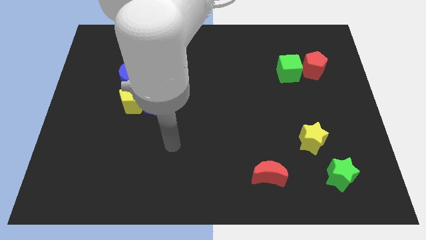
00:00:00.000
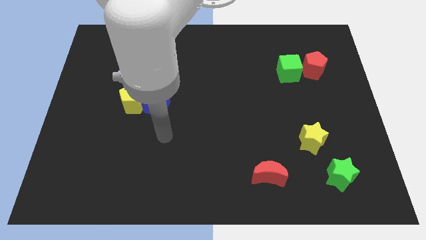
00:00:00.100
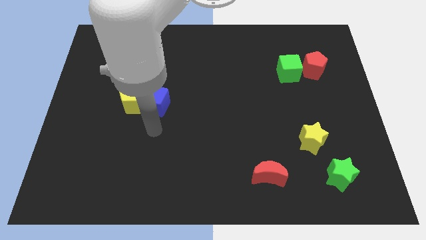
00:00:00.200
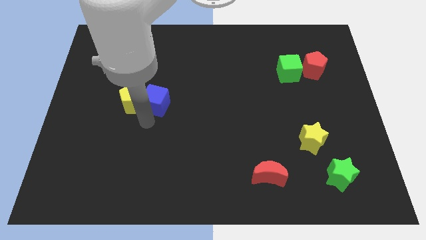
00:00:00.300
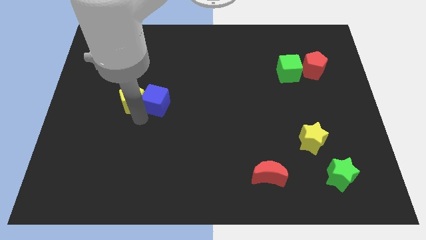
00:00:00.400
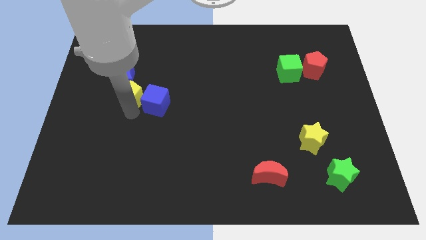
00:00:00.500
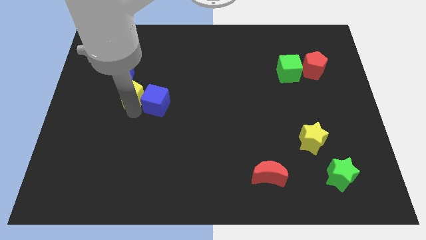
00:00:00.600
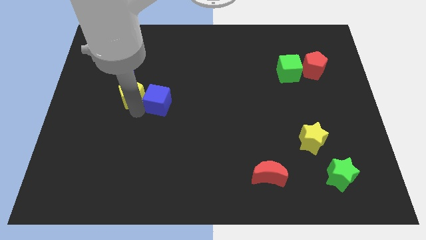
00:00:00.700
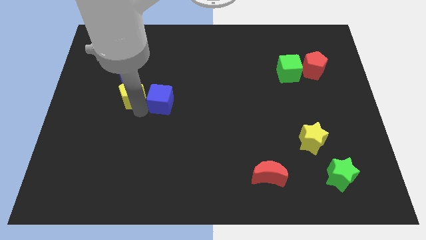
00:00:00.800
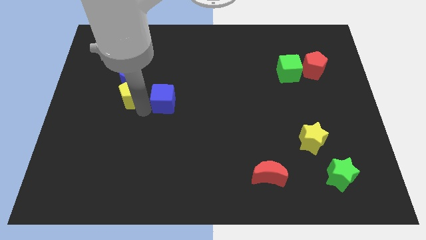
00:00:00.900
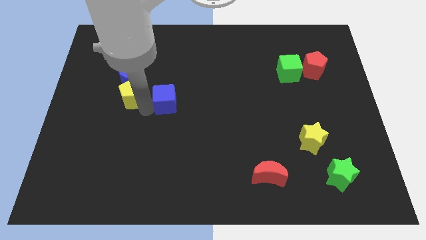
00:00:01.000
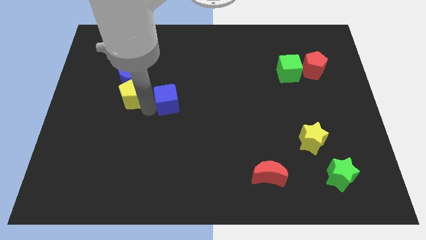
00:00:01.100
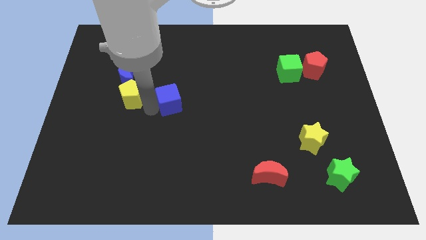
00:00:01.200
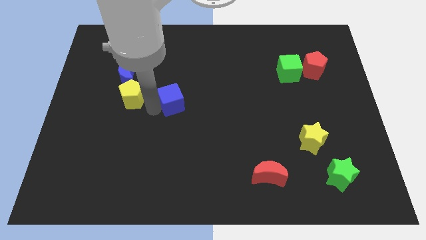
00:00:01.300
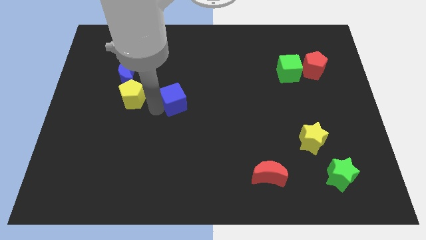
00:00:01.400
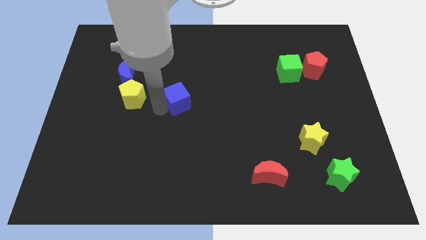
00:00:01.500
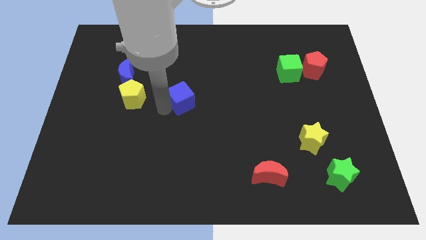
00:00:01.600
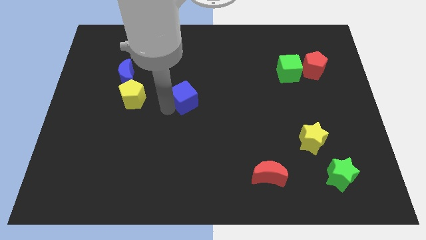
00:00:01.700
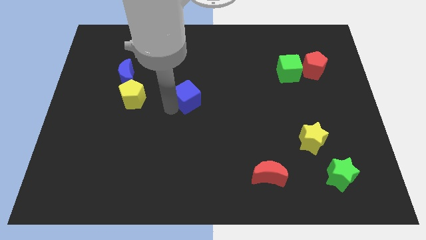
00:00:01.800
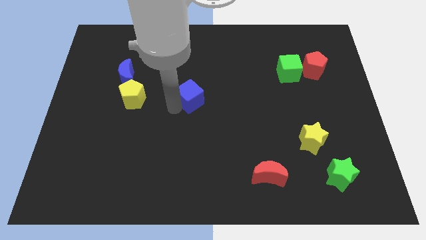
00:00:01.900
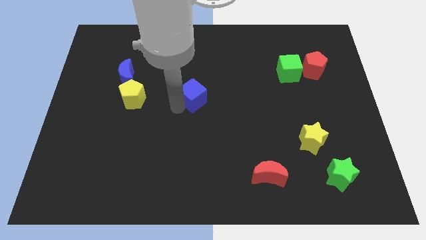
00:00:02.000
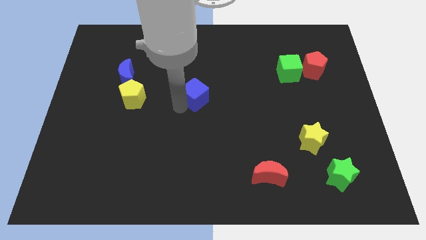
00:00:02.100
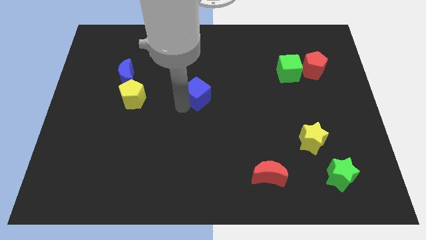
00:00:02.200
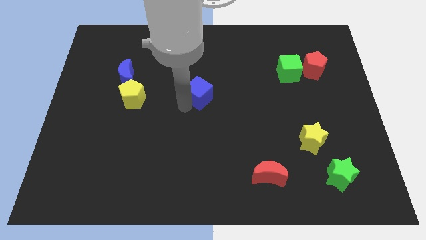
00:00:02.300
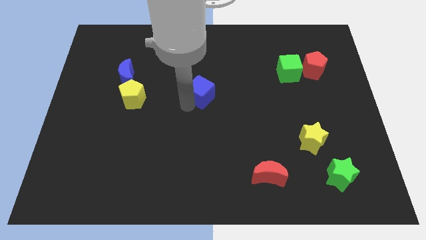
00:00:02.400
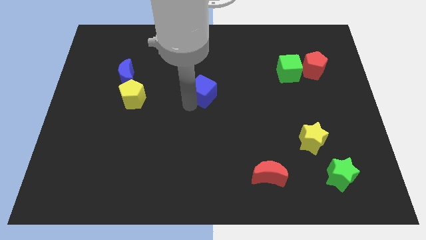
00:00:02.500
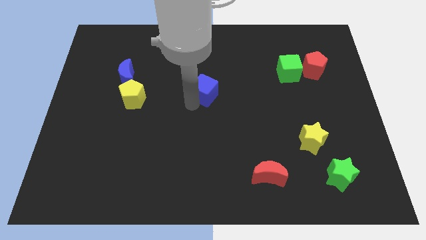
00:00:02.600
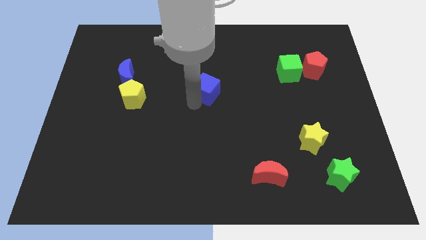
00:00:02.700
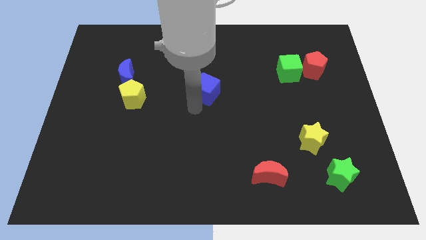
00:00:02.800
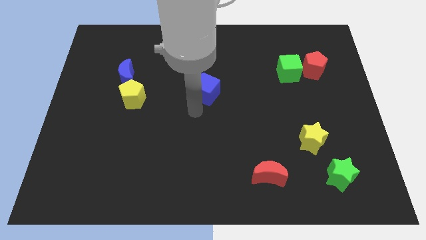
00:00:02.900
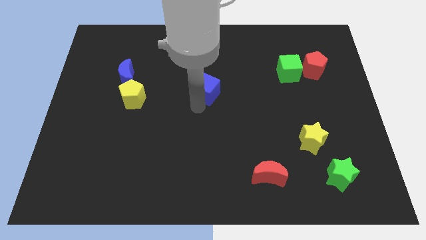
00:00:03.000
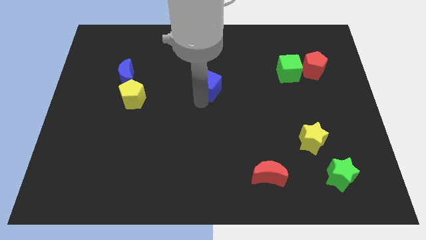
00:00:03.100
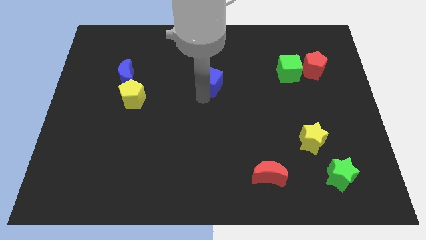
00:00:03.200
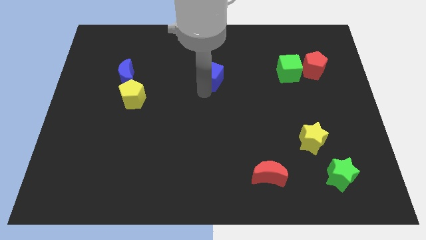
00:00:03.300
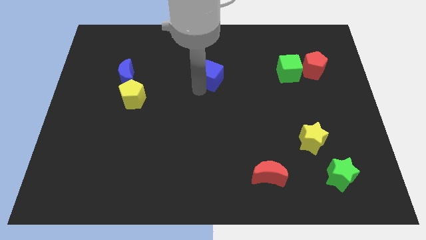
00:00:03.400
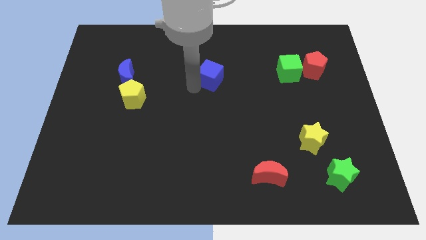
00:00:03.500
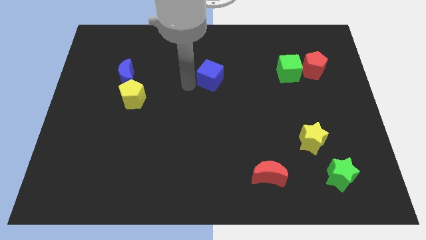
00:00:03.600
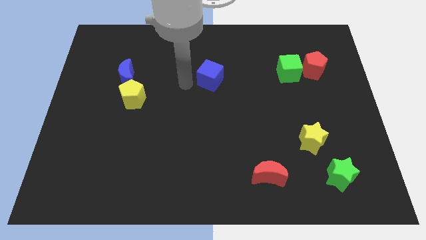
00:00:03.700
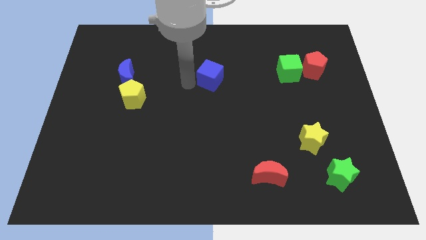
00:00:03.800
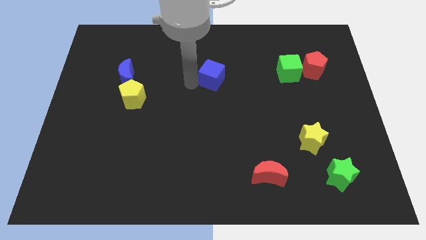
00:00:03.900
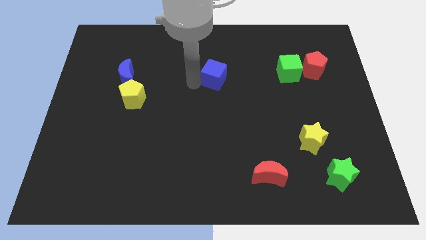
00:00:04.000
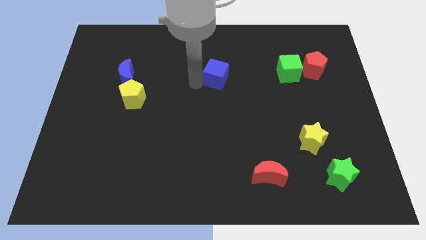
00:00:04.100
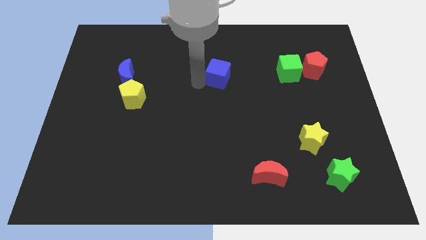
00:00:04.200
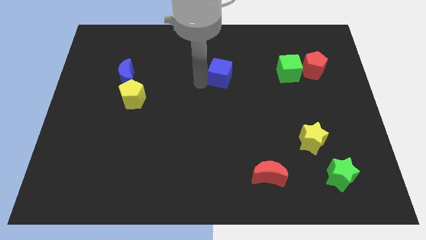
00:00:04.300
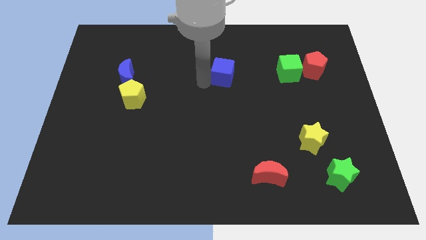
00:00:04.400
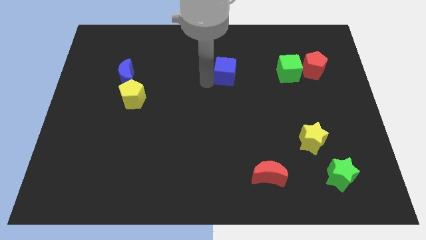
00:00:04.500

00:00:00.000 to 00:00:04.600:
move the blue cube to the left side of the green cube

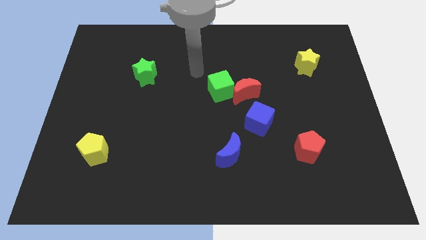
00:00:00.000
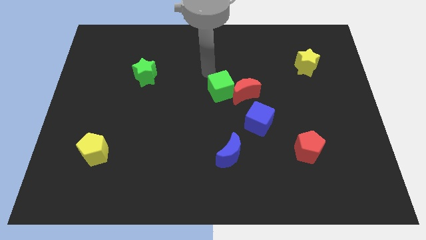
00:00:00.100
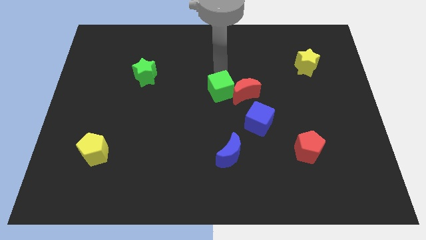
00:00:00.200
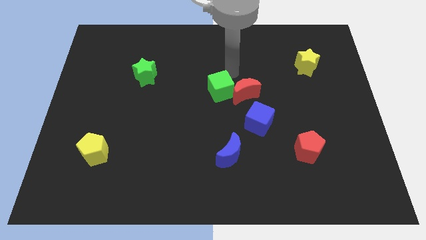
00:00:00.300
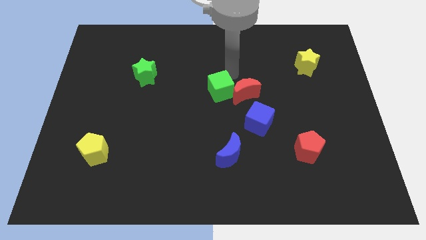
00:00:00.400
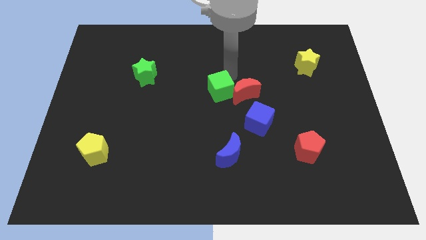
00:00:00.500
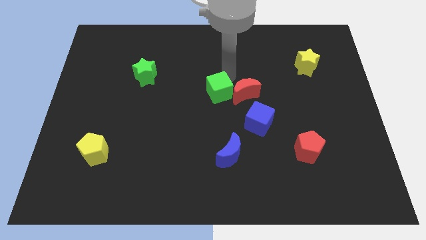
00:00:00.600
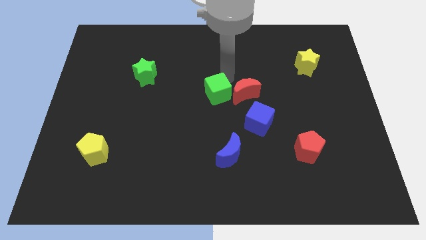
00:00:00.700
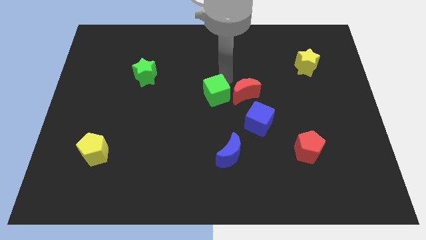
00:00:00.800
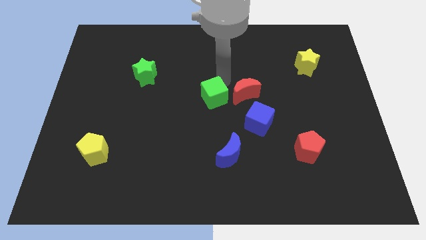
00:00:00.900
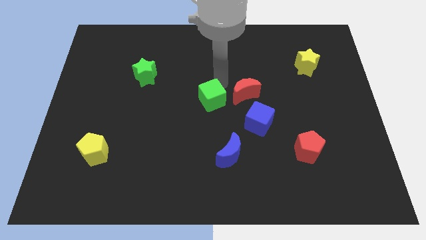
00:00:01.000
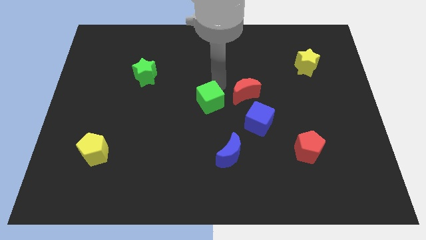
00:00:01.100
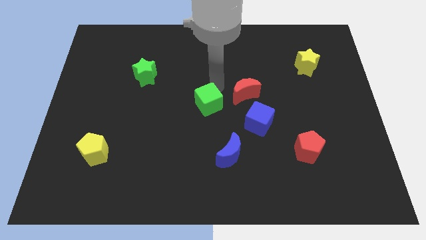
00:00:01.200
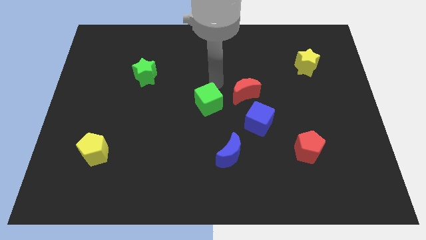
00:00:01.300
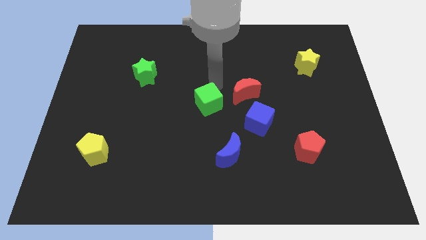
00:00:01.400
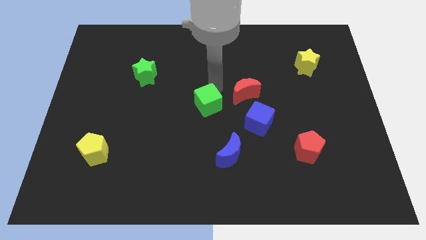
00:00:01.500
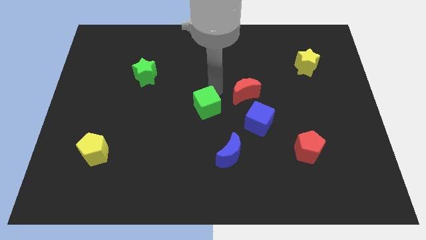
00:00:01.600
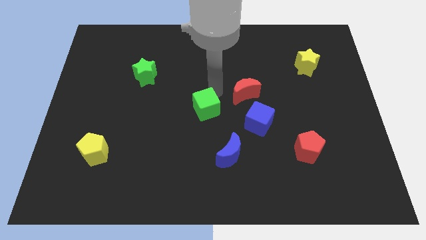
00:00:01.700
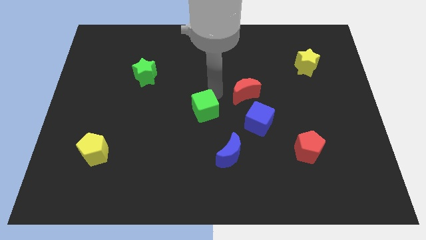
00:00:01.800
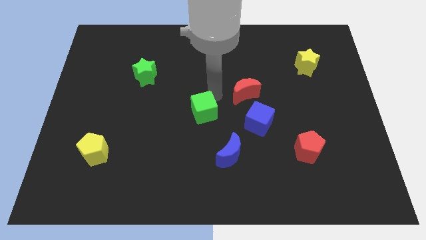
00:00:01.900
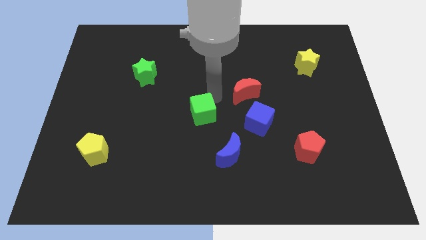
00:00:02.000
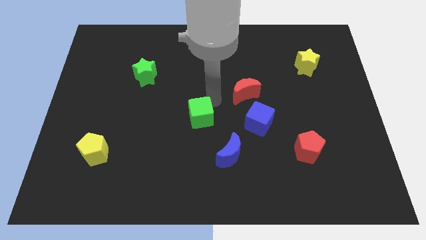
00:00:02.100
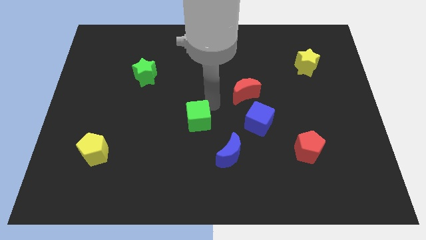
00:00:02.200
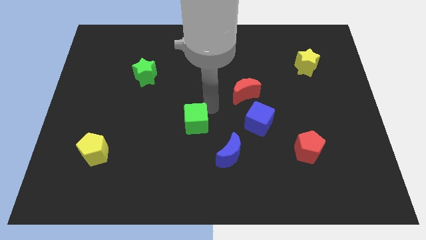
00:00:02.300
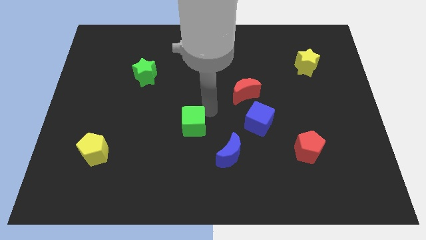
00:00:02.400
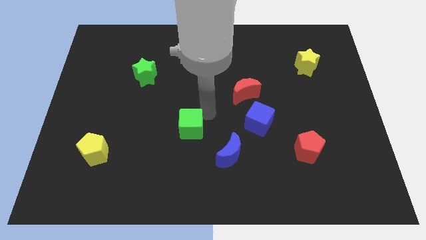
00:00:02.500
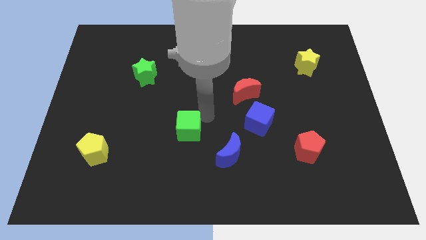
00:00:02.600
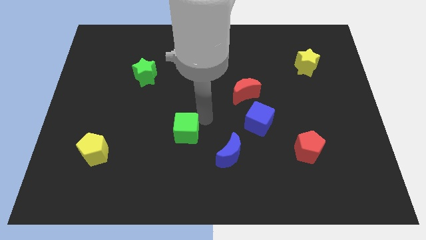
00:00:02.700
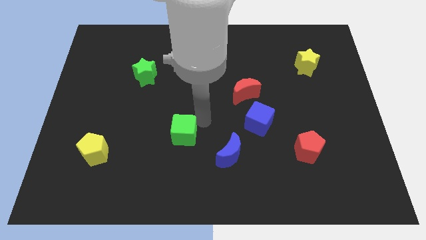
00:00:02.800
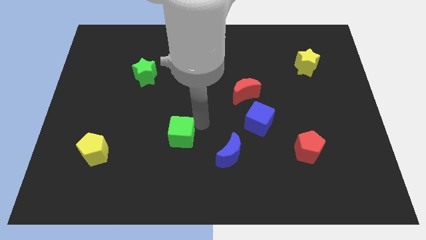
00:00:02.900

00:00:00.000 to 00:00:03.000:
push the green cube just left of the blue moon

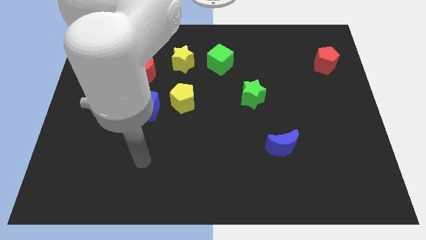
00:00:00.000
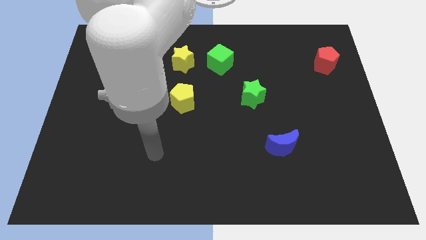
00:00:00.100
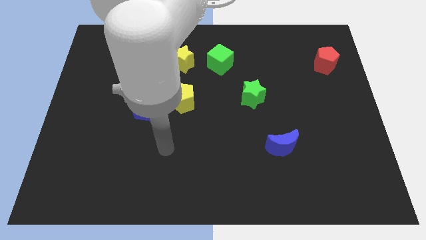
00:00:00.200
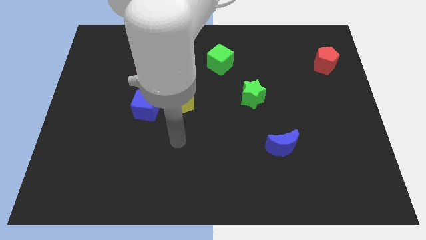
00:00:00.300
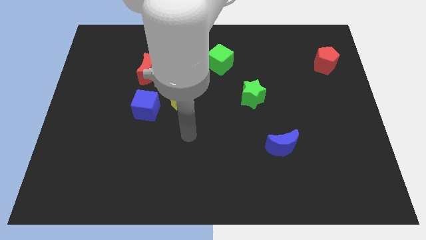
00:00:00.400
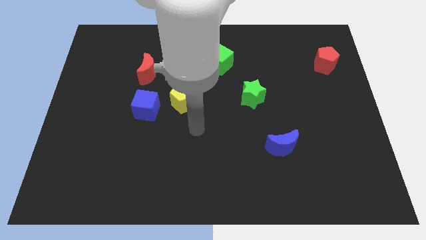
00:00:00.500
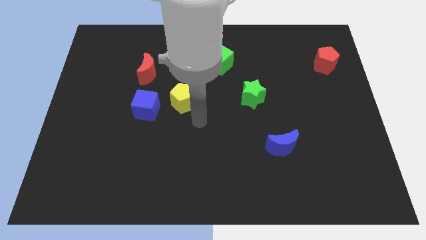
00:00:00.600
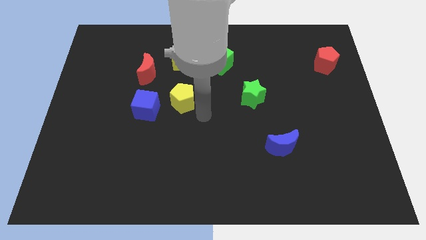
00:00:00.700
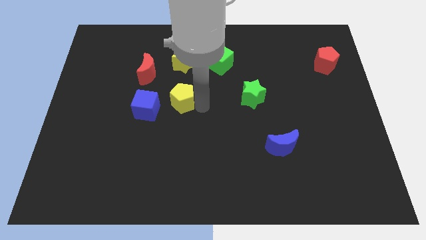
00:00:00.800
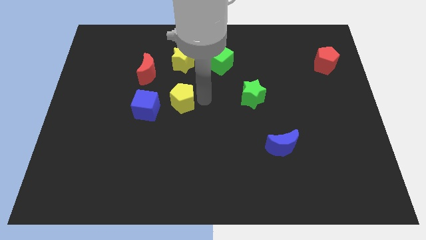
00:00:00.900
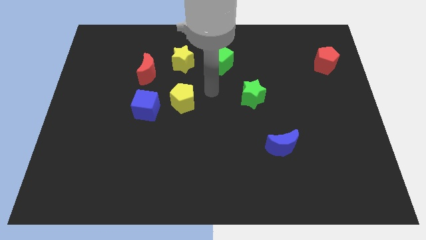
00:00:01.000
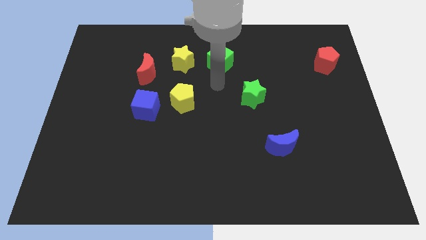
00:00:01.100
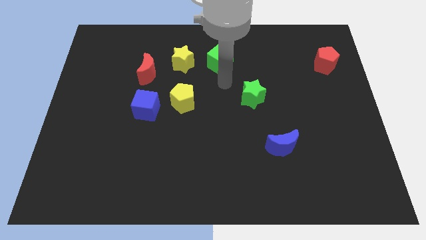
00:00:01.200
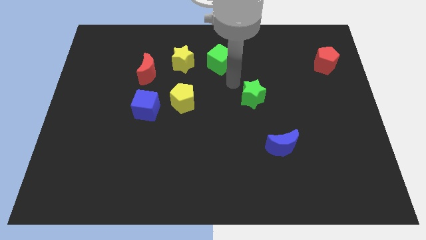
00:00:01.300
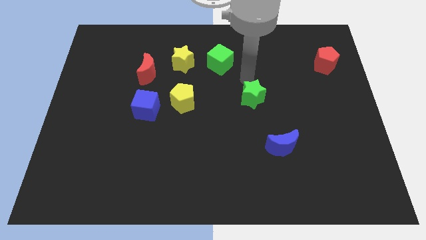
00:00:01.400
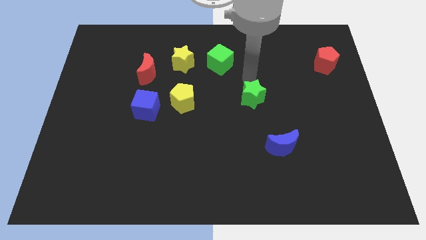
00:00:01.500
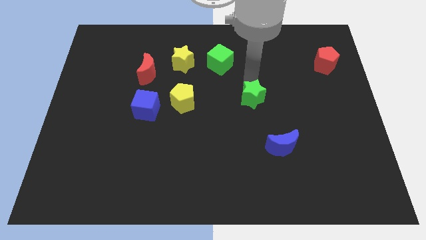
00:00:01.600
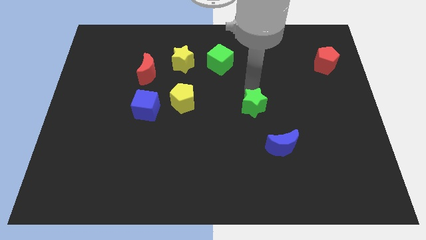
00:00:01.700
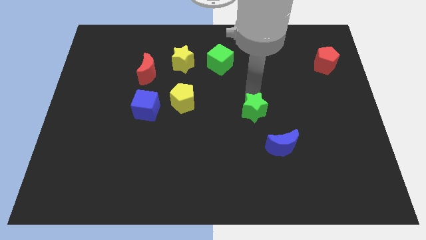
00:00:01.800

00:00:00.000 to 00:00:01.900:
move the green star to the top left side of the blue moon
